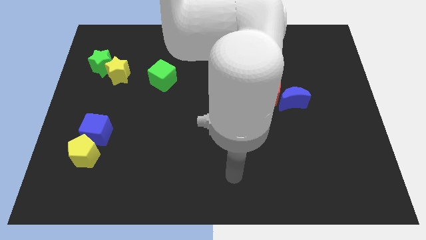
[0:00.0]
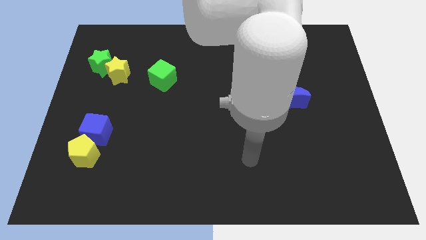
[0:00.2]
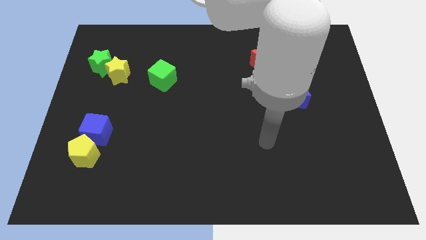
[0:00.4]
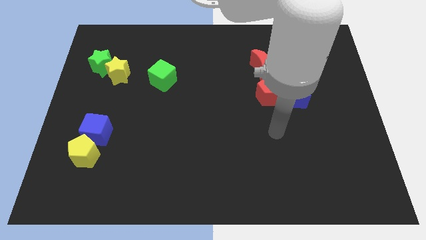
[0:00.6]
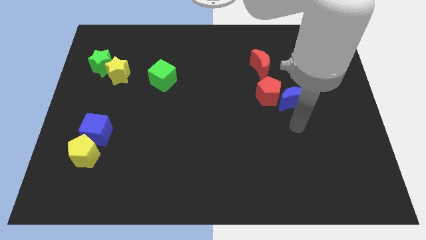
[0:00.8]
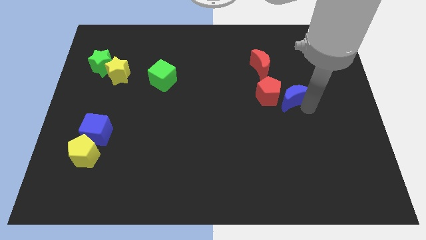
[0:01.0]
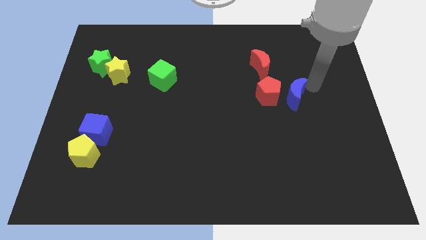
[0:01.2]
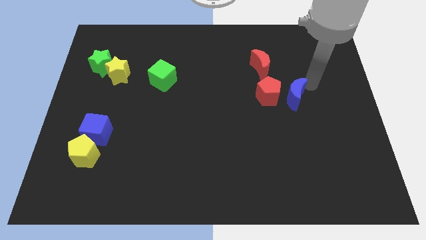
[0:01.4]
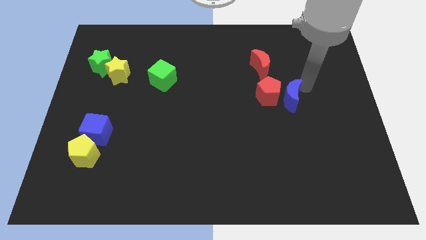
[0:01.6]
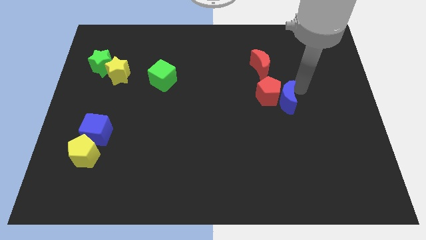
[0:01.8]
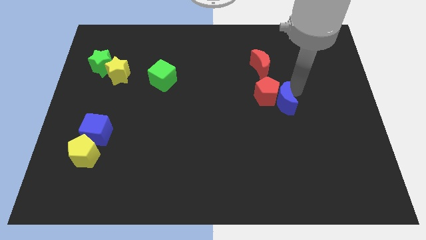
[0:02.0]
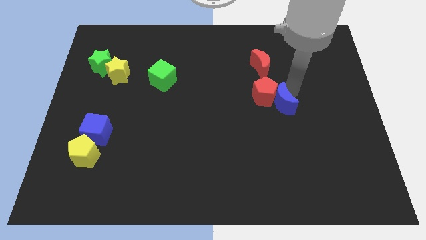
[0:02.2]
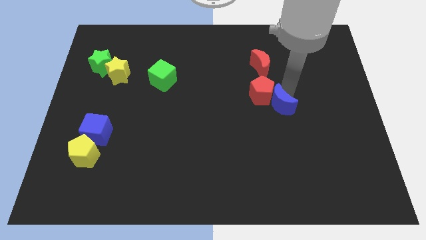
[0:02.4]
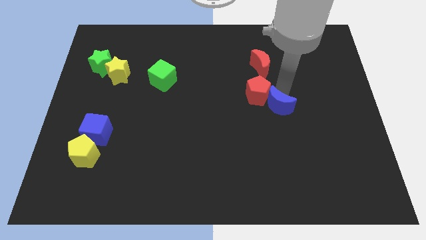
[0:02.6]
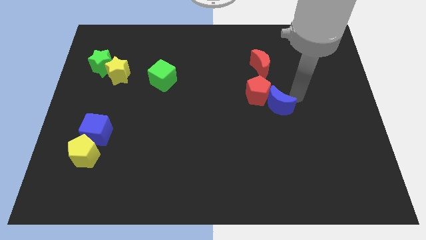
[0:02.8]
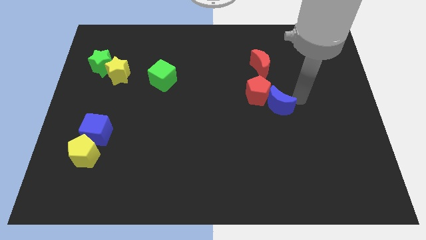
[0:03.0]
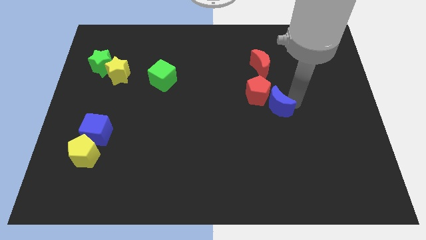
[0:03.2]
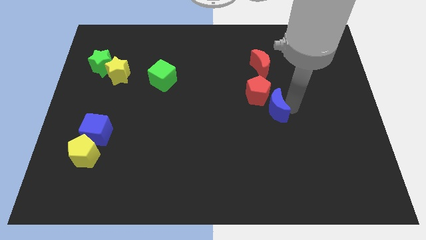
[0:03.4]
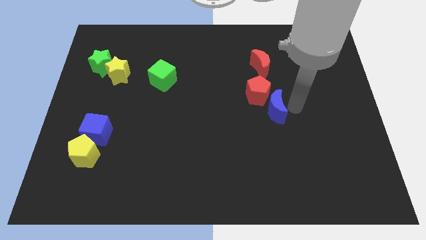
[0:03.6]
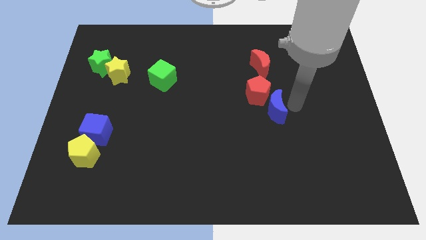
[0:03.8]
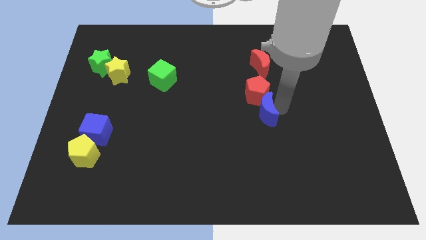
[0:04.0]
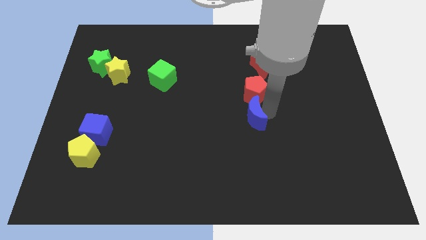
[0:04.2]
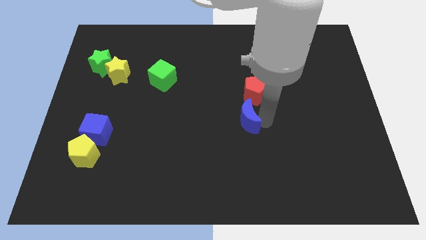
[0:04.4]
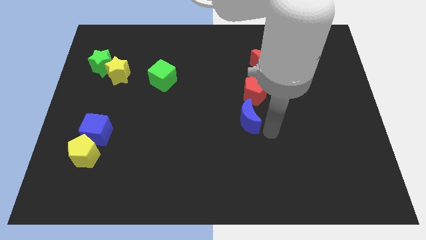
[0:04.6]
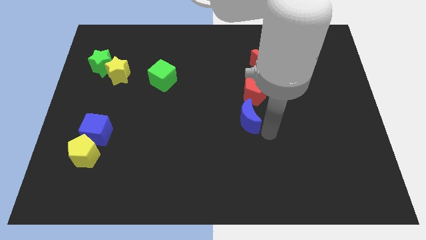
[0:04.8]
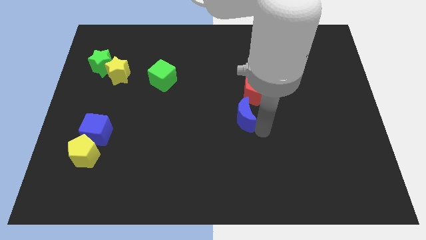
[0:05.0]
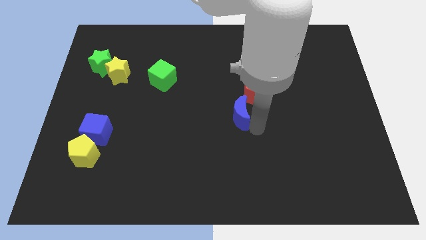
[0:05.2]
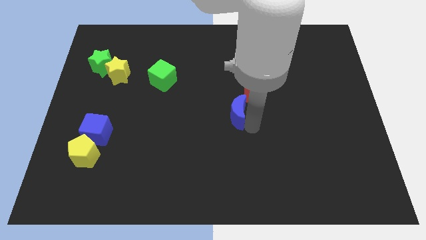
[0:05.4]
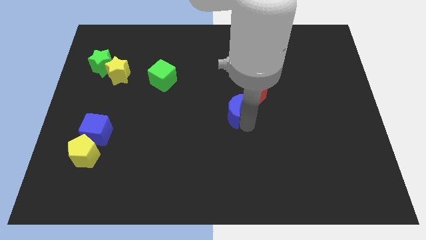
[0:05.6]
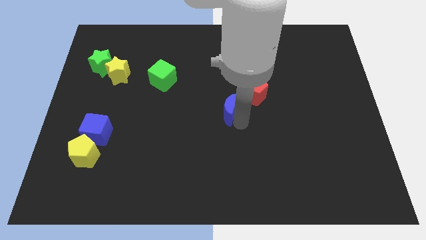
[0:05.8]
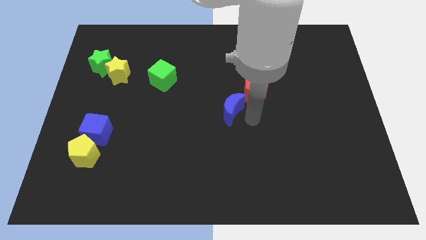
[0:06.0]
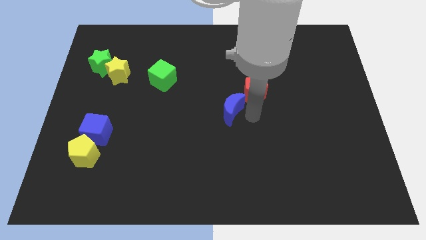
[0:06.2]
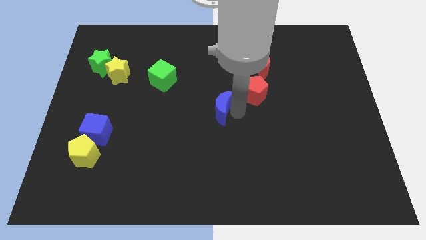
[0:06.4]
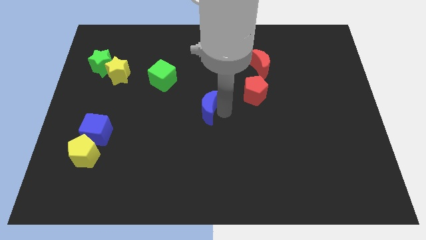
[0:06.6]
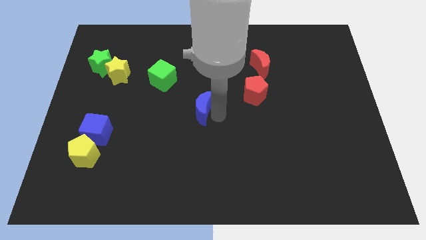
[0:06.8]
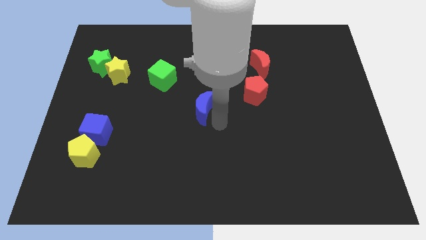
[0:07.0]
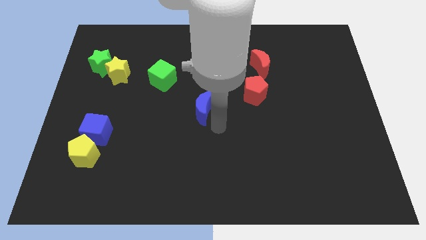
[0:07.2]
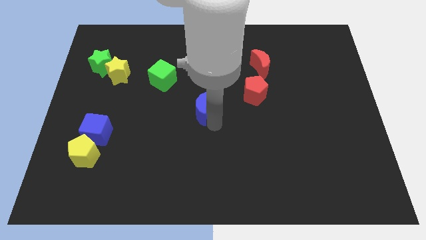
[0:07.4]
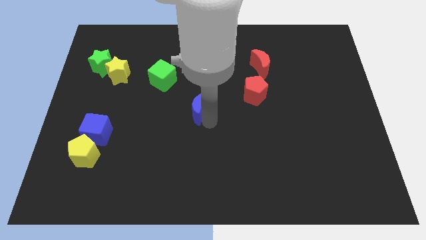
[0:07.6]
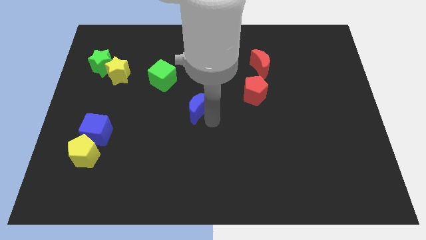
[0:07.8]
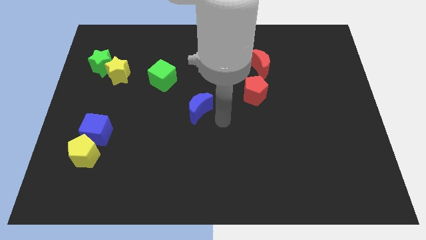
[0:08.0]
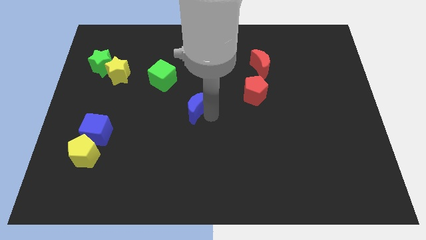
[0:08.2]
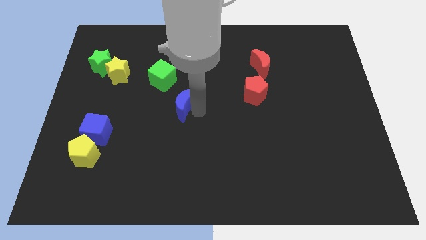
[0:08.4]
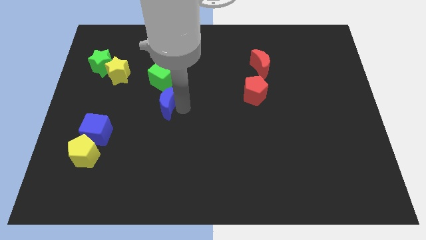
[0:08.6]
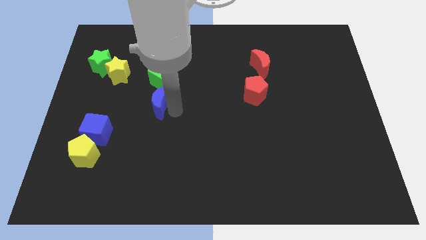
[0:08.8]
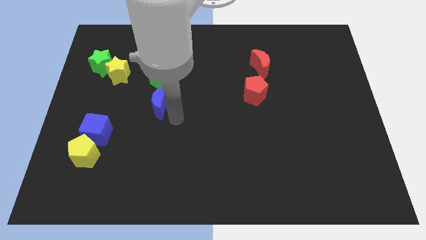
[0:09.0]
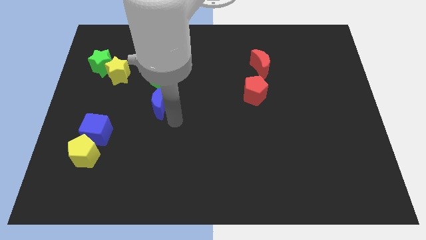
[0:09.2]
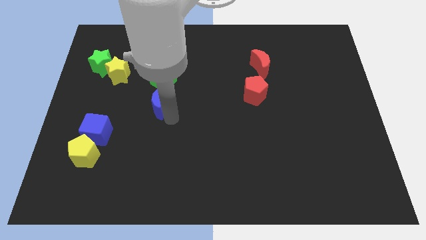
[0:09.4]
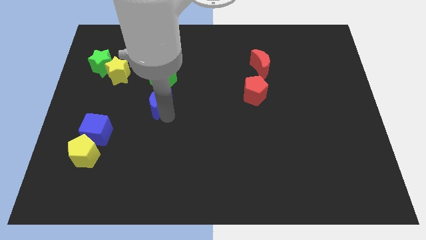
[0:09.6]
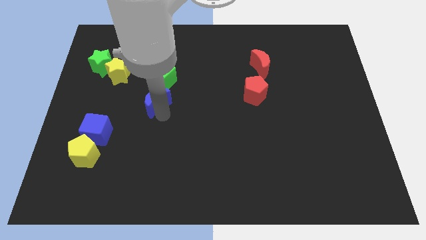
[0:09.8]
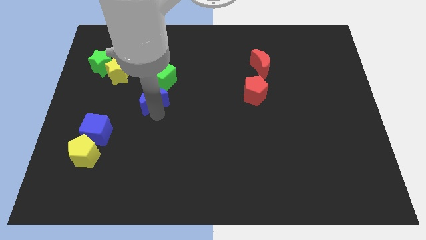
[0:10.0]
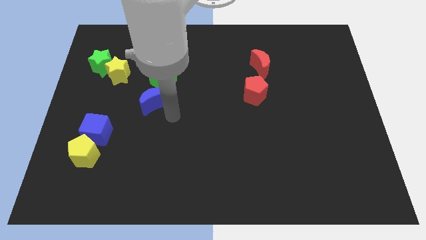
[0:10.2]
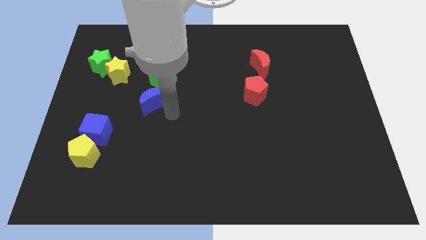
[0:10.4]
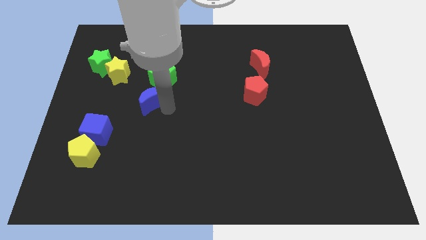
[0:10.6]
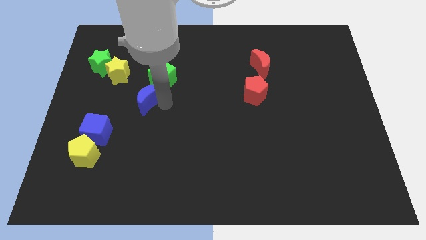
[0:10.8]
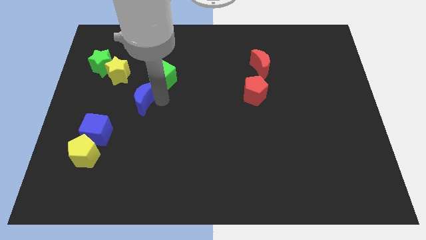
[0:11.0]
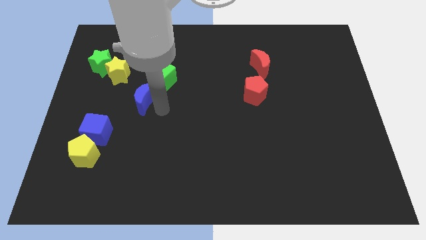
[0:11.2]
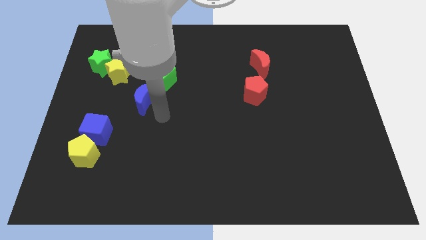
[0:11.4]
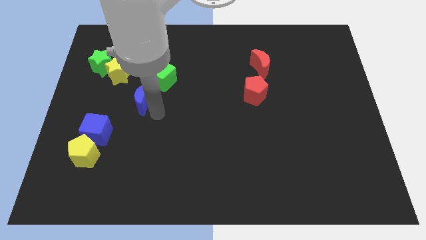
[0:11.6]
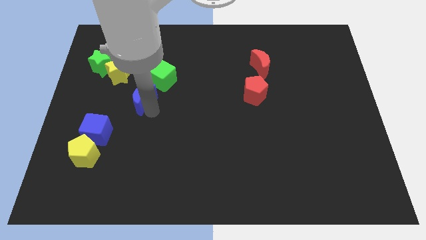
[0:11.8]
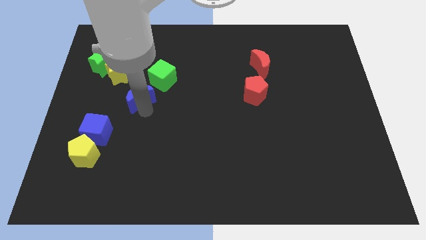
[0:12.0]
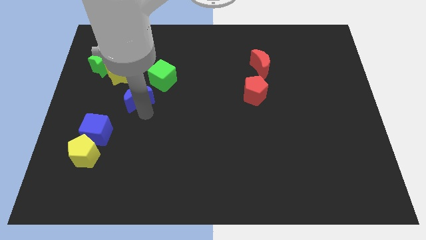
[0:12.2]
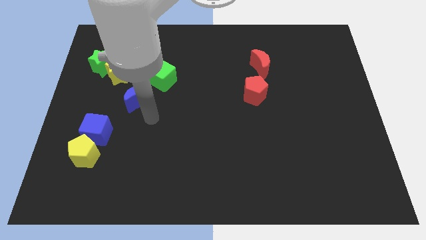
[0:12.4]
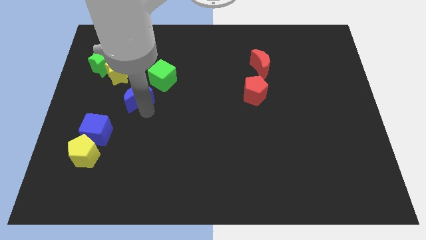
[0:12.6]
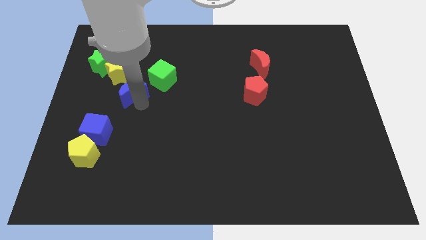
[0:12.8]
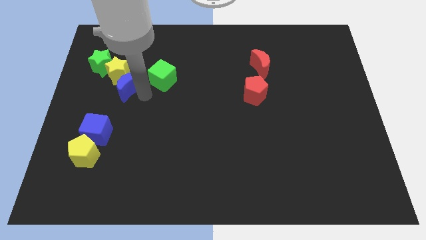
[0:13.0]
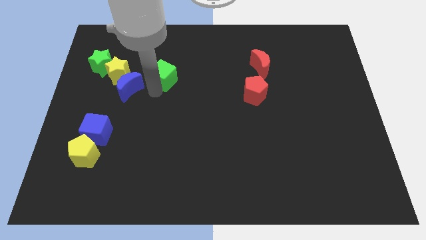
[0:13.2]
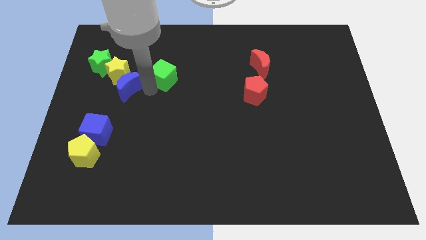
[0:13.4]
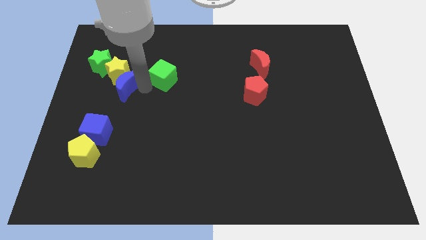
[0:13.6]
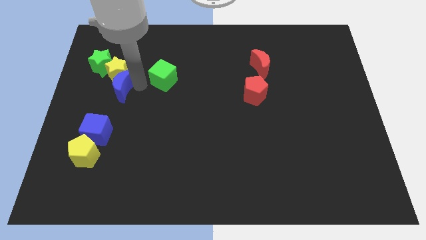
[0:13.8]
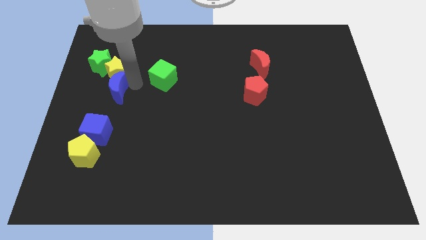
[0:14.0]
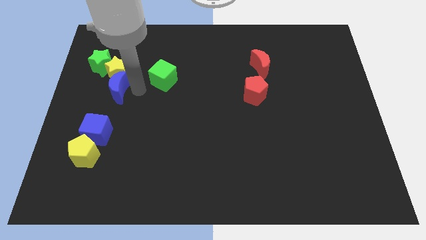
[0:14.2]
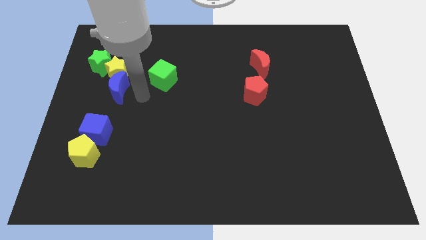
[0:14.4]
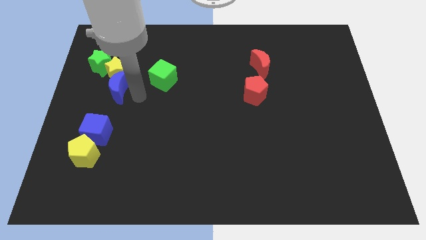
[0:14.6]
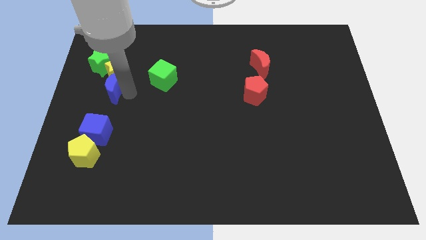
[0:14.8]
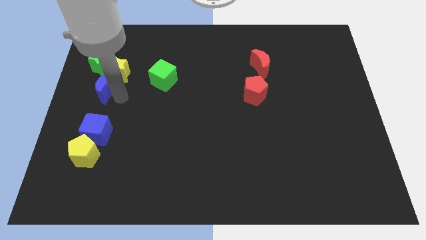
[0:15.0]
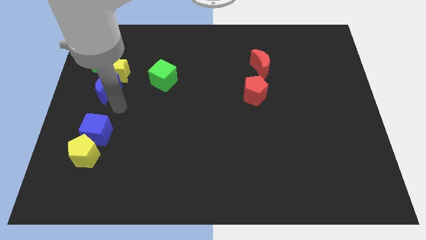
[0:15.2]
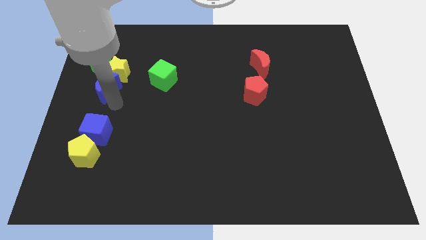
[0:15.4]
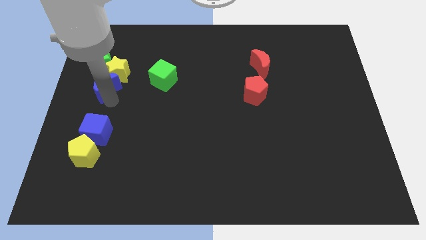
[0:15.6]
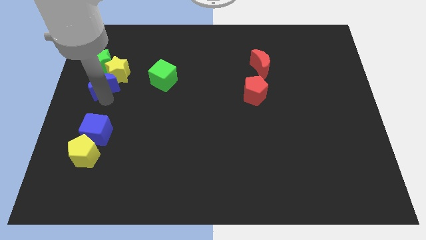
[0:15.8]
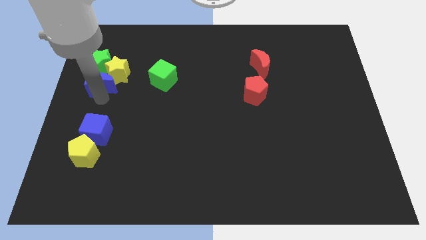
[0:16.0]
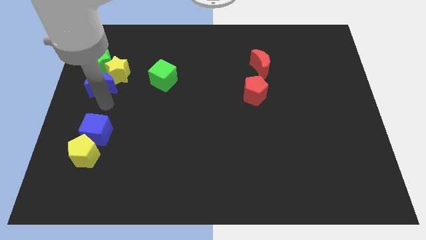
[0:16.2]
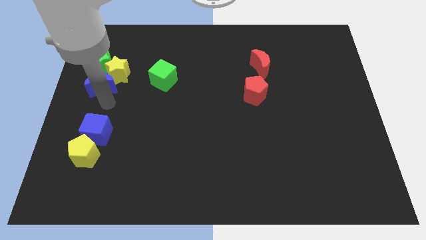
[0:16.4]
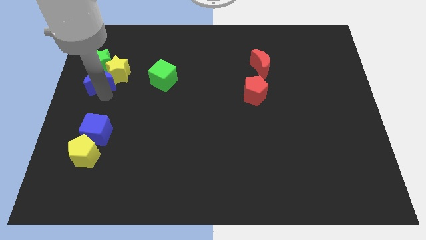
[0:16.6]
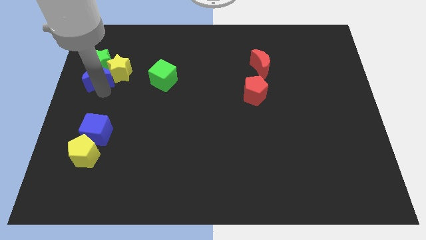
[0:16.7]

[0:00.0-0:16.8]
slide the blue moon next to the green star
